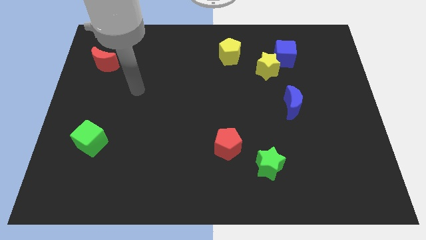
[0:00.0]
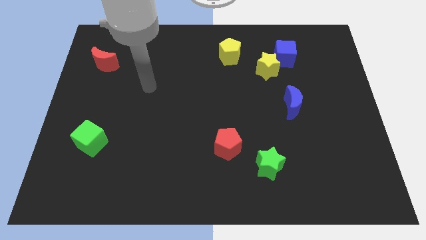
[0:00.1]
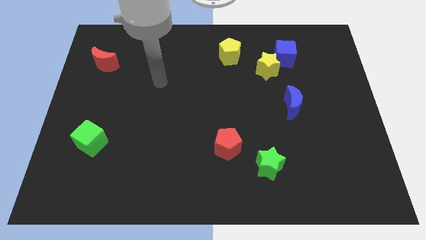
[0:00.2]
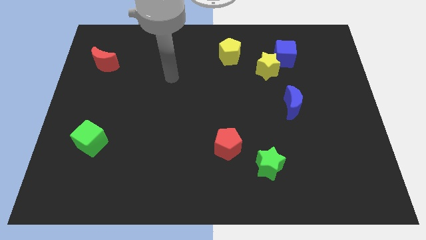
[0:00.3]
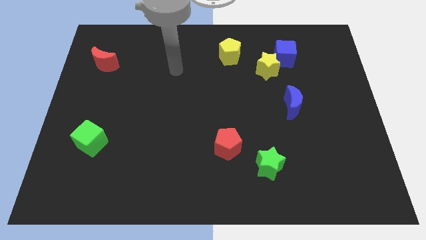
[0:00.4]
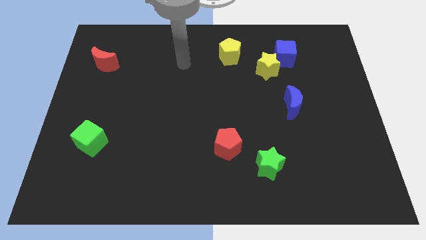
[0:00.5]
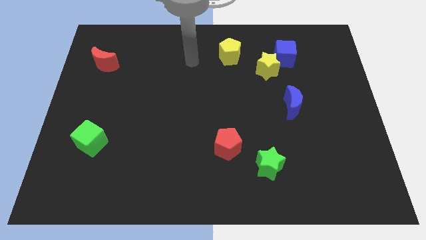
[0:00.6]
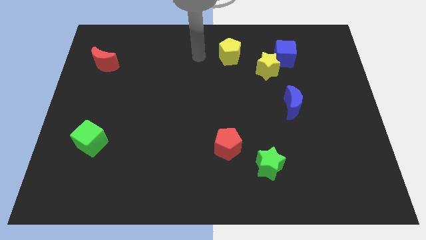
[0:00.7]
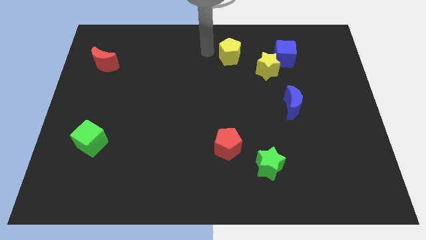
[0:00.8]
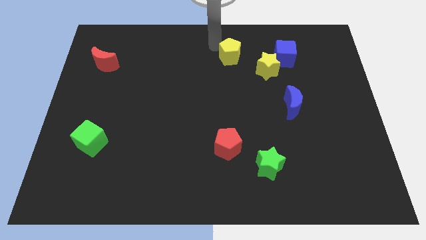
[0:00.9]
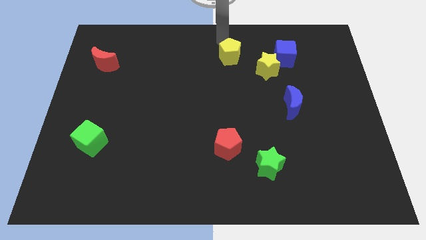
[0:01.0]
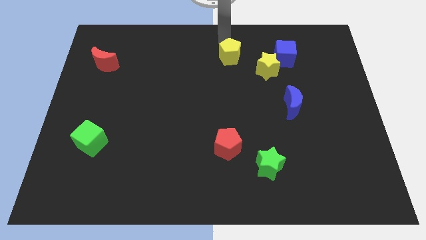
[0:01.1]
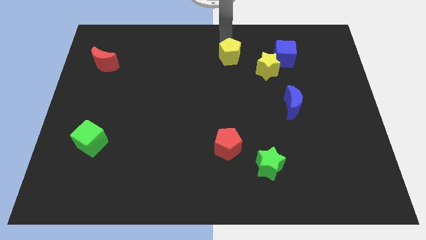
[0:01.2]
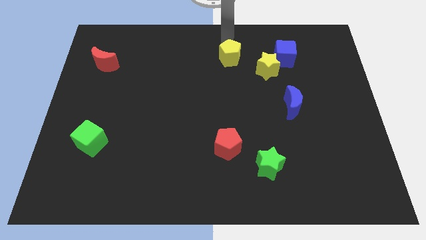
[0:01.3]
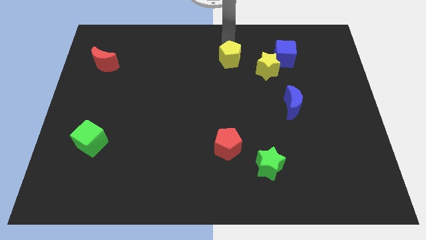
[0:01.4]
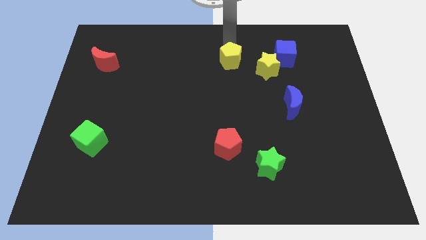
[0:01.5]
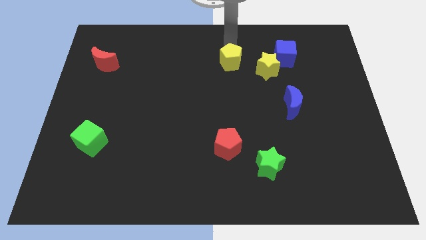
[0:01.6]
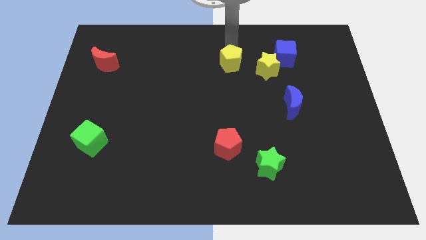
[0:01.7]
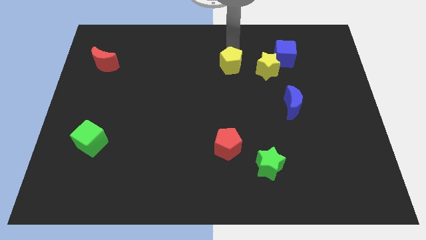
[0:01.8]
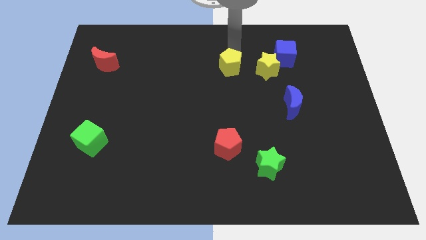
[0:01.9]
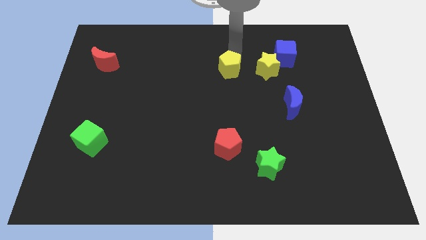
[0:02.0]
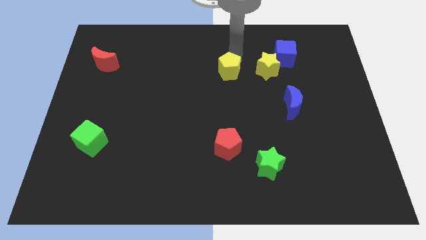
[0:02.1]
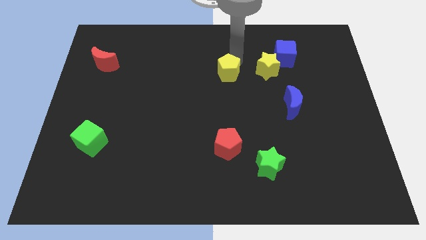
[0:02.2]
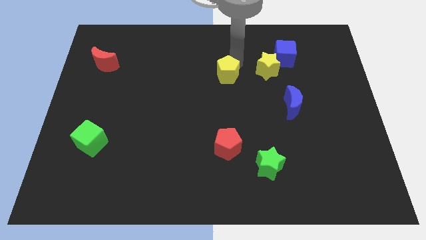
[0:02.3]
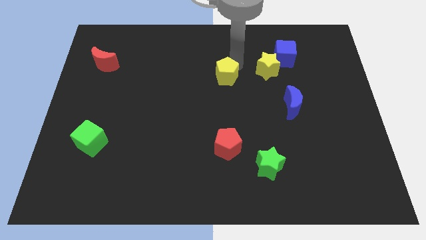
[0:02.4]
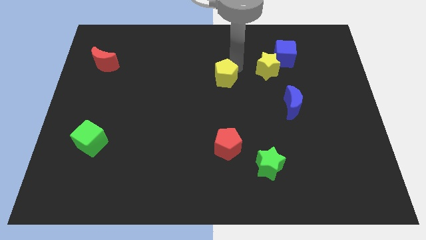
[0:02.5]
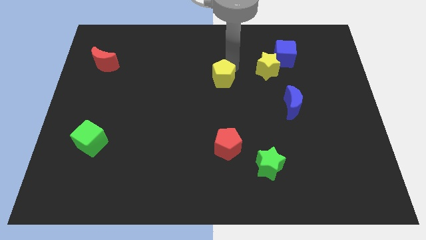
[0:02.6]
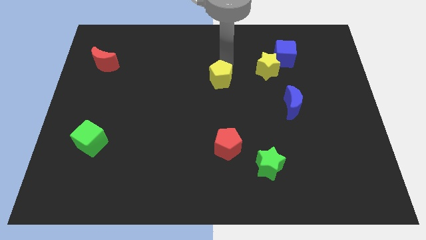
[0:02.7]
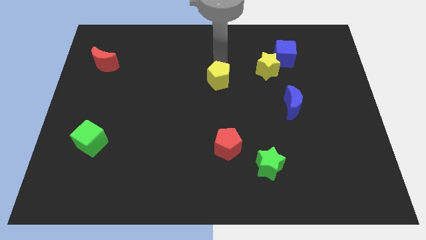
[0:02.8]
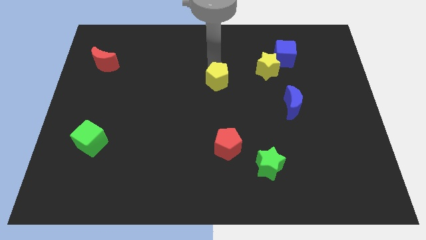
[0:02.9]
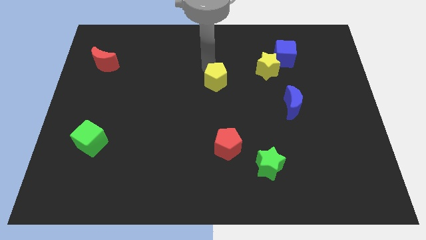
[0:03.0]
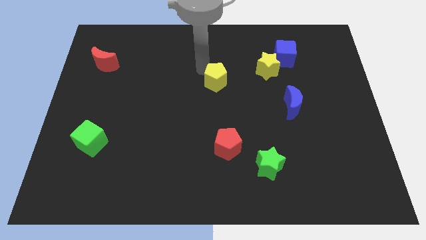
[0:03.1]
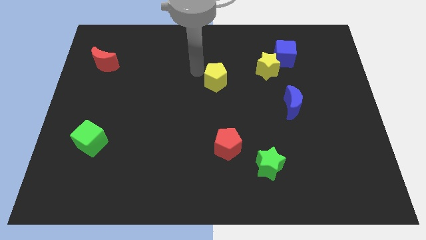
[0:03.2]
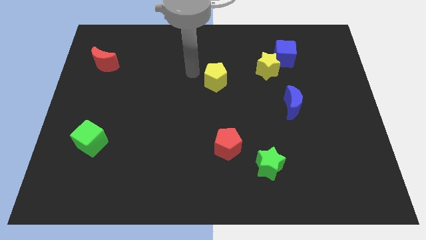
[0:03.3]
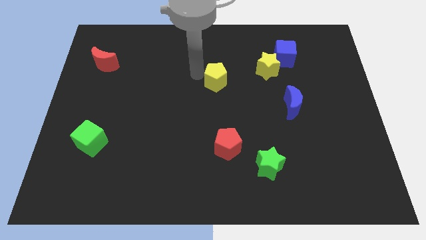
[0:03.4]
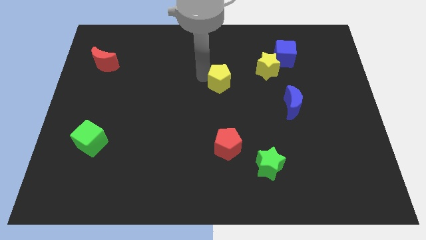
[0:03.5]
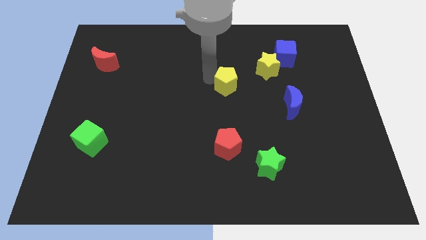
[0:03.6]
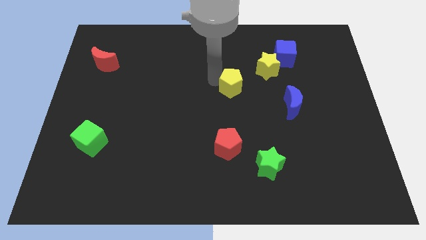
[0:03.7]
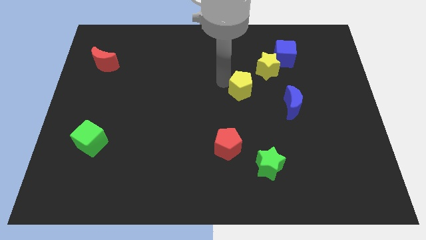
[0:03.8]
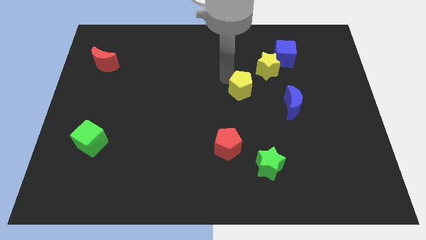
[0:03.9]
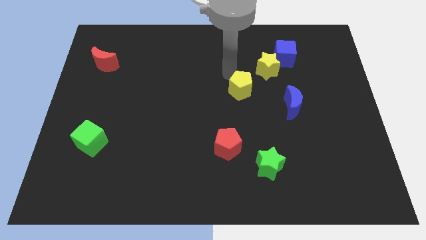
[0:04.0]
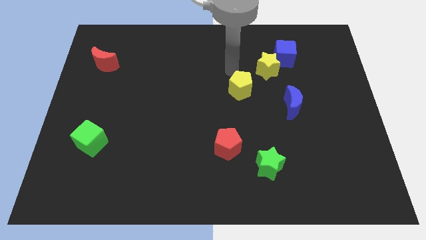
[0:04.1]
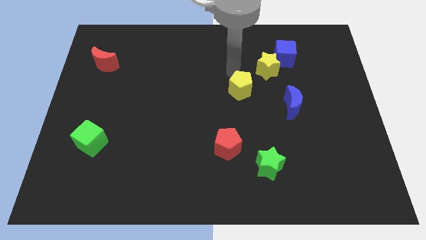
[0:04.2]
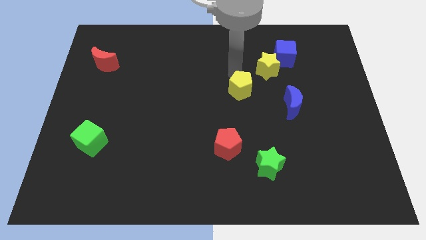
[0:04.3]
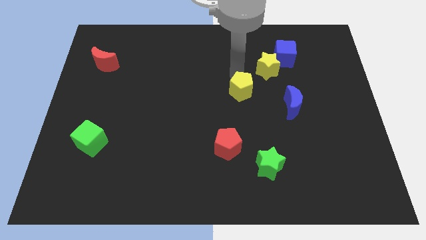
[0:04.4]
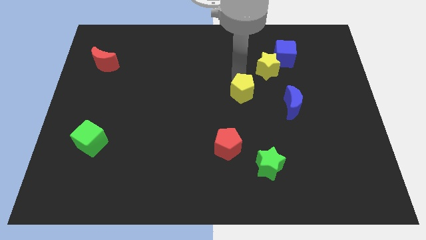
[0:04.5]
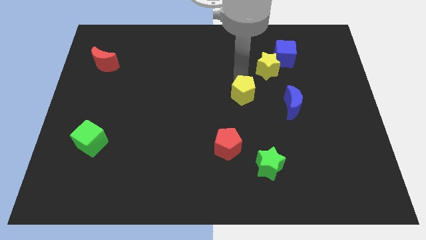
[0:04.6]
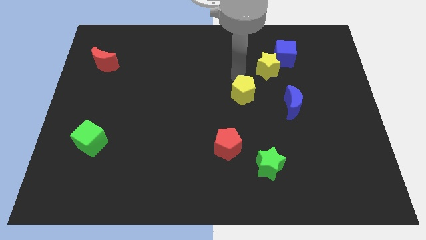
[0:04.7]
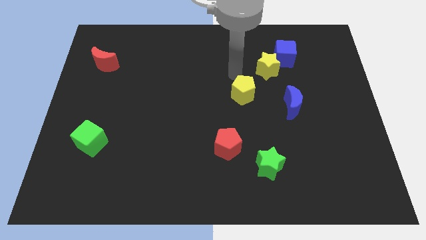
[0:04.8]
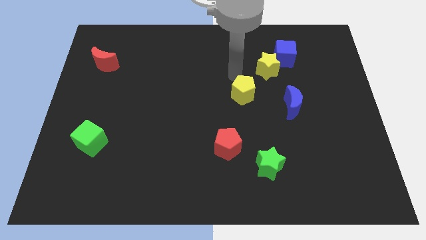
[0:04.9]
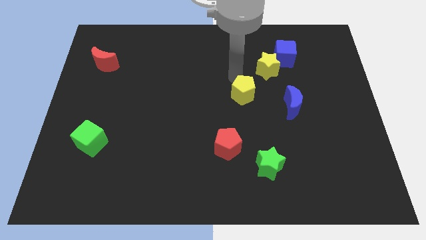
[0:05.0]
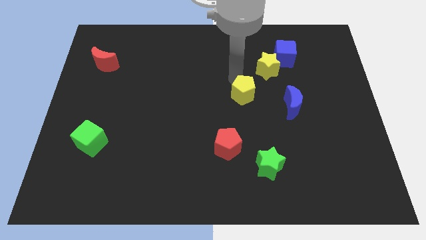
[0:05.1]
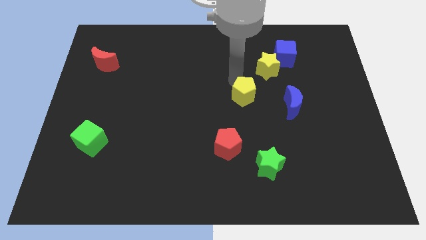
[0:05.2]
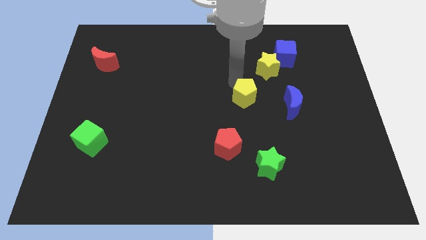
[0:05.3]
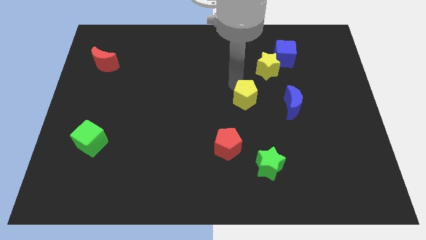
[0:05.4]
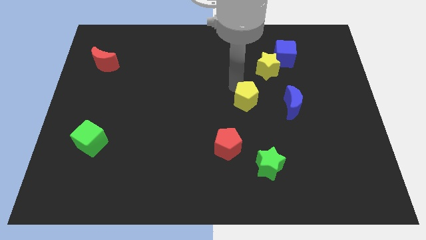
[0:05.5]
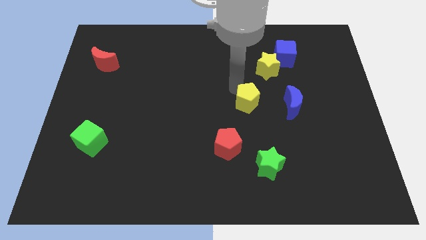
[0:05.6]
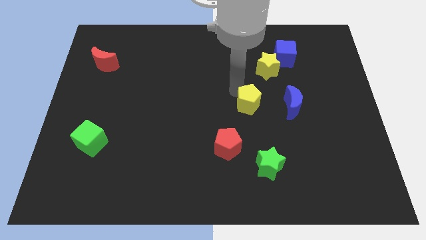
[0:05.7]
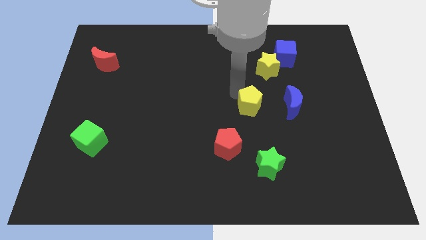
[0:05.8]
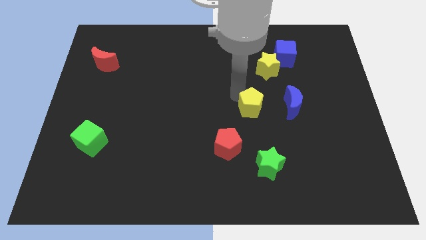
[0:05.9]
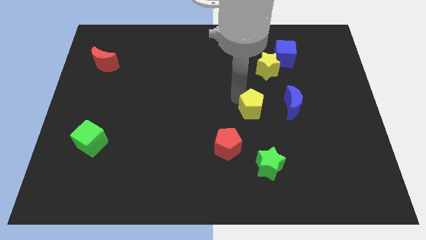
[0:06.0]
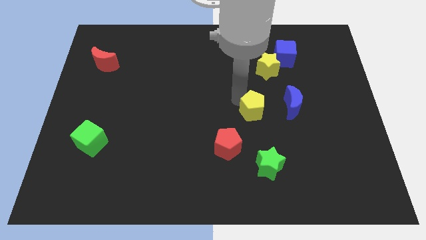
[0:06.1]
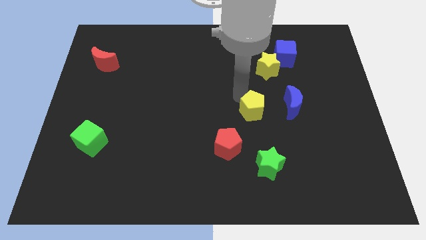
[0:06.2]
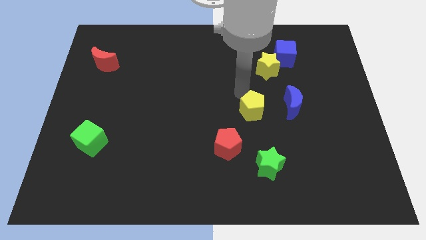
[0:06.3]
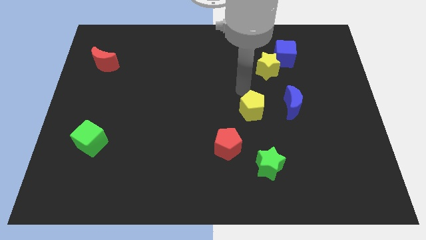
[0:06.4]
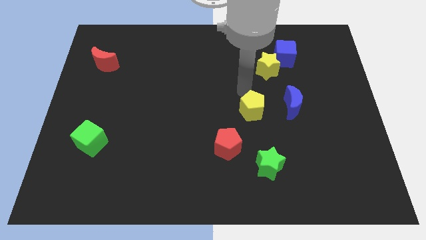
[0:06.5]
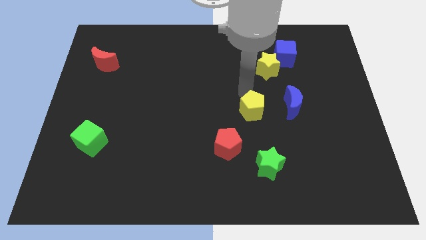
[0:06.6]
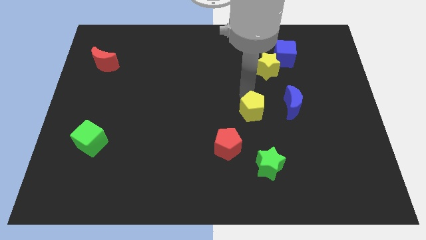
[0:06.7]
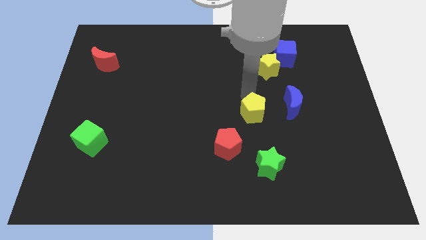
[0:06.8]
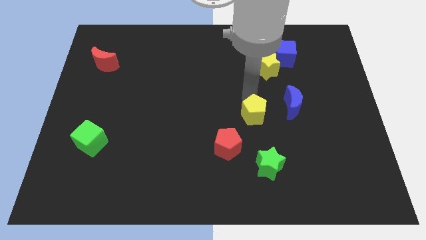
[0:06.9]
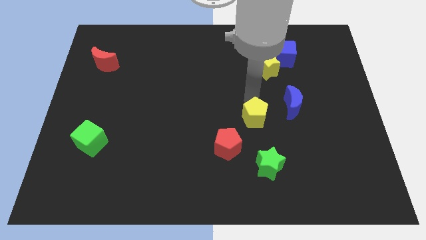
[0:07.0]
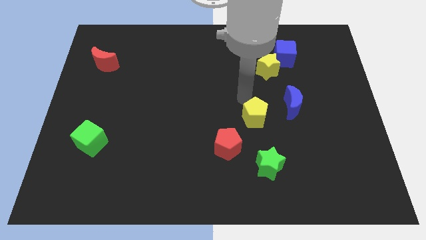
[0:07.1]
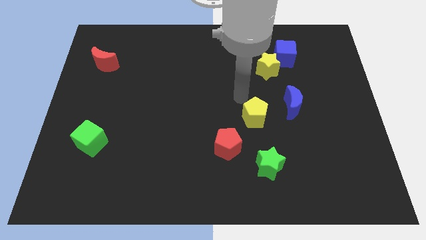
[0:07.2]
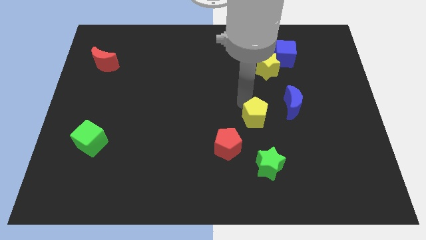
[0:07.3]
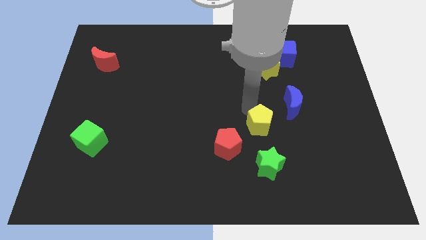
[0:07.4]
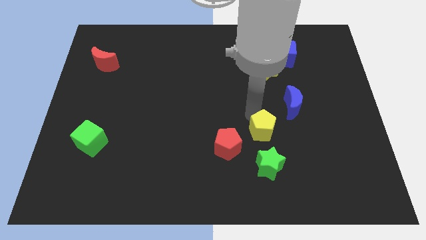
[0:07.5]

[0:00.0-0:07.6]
slide the yellow pentagon right of the red pentagon
